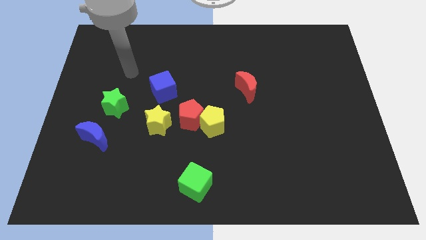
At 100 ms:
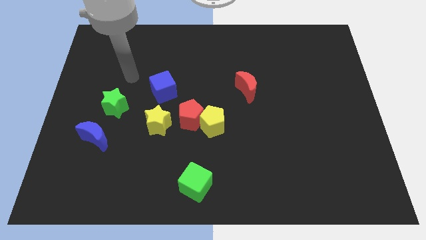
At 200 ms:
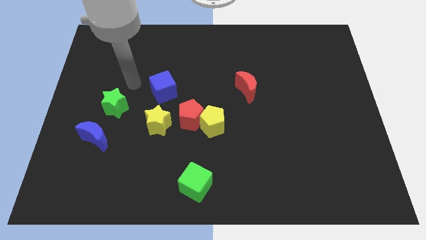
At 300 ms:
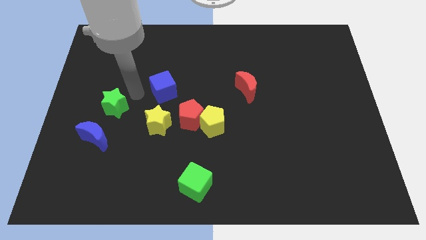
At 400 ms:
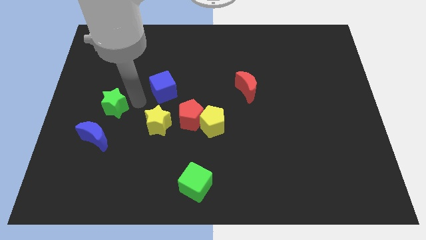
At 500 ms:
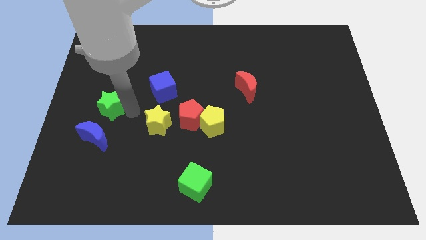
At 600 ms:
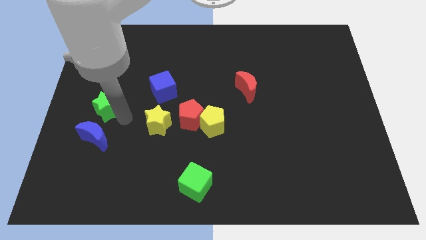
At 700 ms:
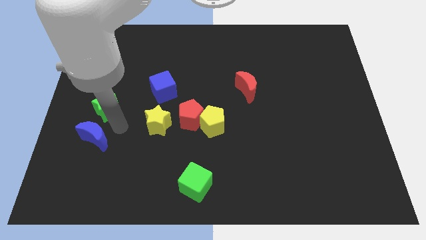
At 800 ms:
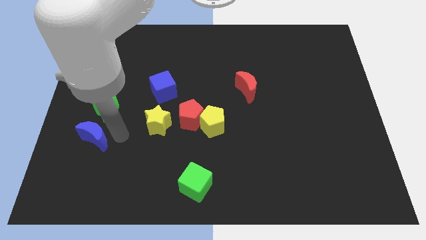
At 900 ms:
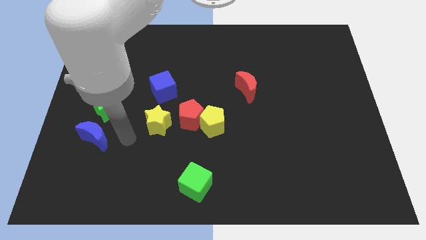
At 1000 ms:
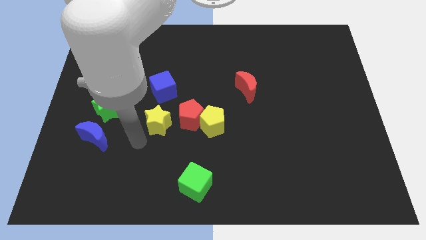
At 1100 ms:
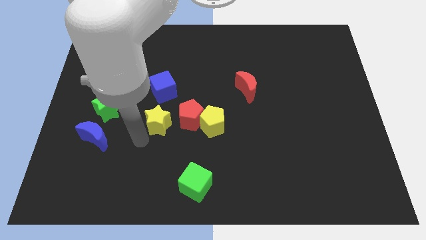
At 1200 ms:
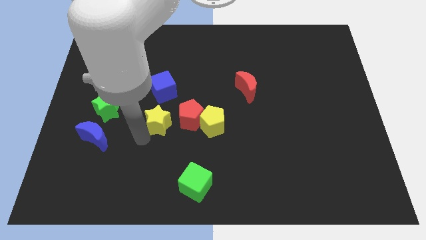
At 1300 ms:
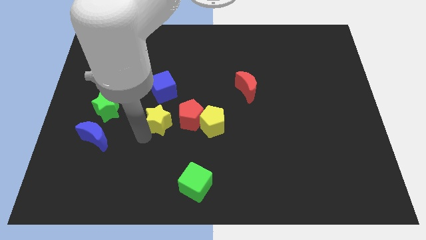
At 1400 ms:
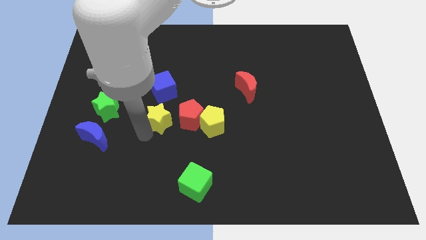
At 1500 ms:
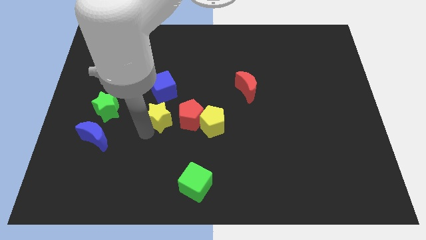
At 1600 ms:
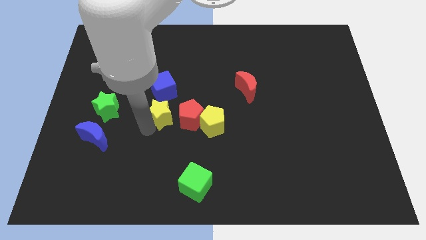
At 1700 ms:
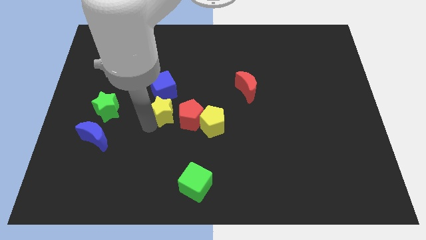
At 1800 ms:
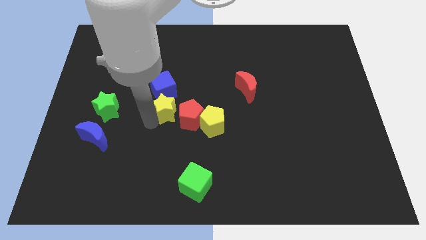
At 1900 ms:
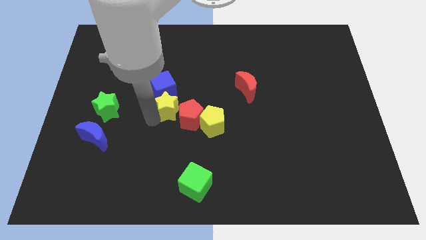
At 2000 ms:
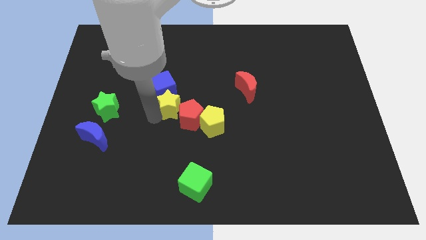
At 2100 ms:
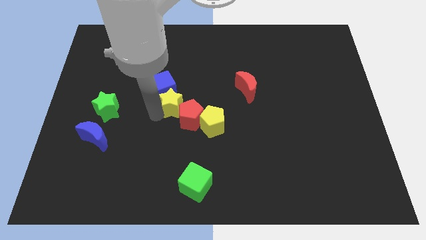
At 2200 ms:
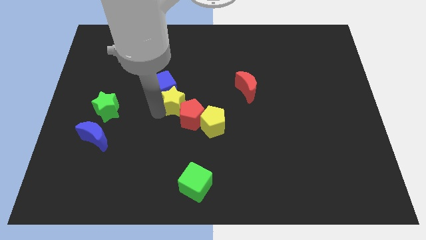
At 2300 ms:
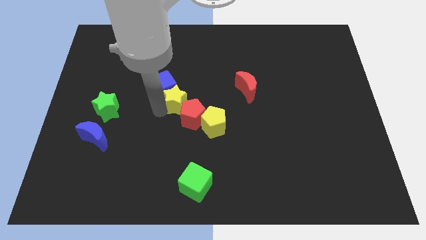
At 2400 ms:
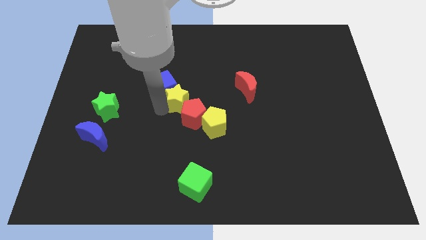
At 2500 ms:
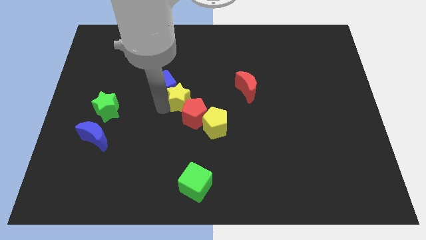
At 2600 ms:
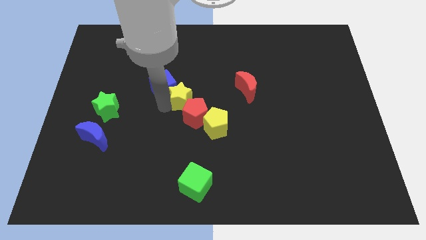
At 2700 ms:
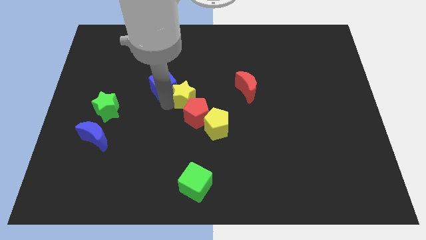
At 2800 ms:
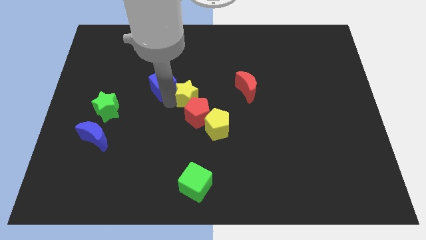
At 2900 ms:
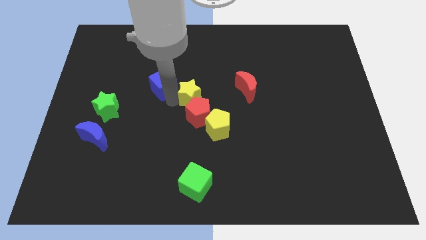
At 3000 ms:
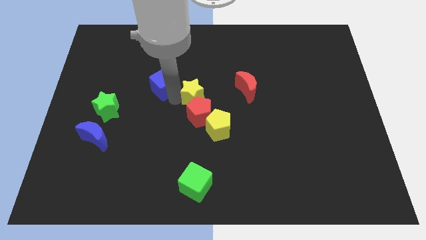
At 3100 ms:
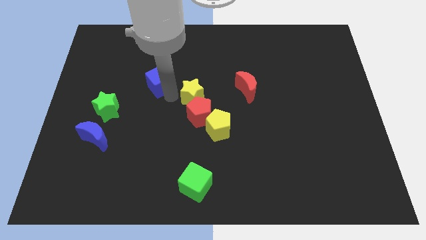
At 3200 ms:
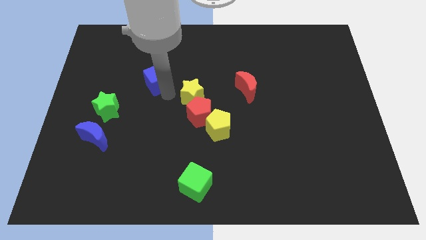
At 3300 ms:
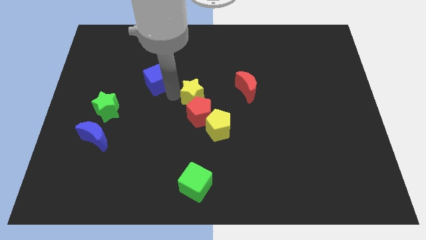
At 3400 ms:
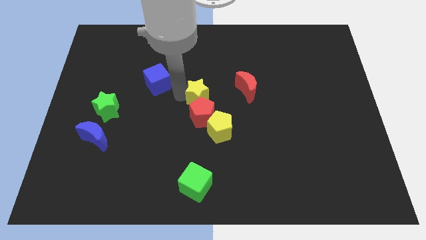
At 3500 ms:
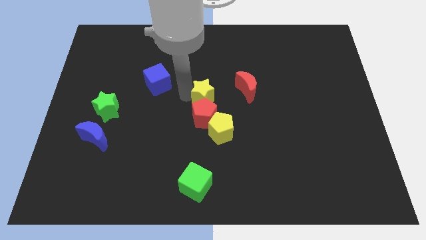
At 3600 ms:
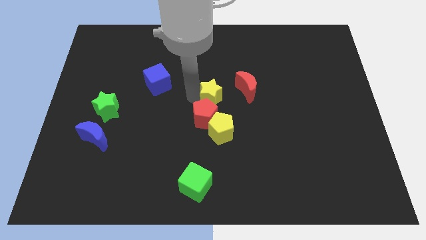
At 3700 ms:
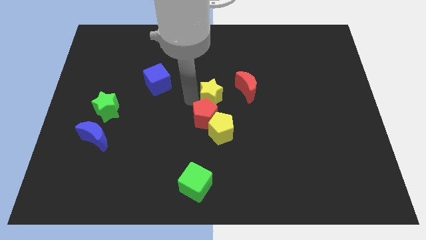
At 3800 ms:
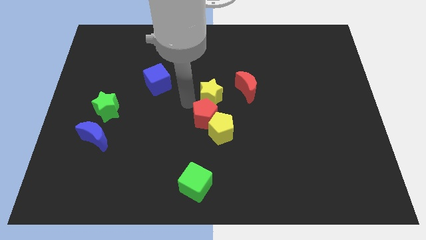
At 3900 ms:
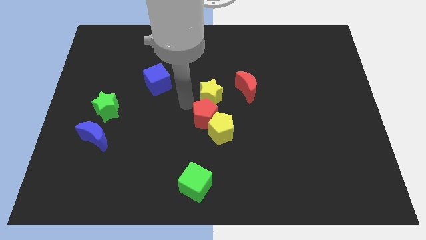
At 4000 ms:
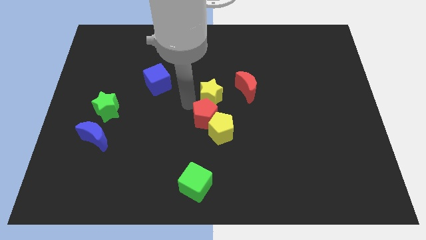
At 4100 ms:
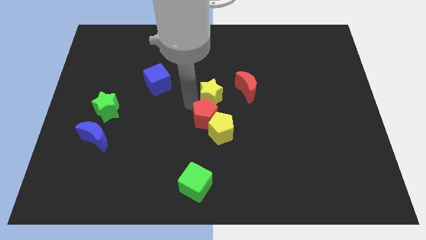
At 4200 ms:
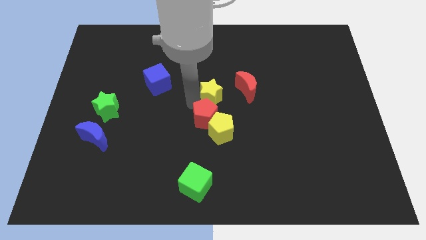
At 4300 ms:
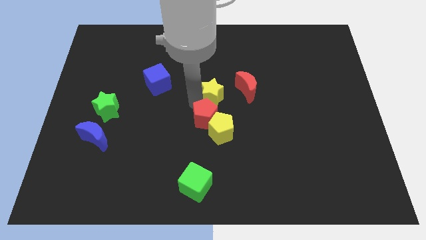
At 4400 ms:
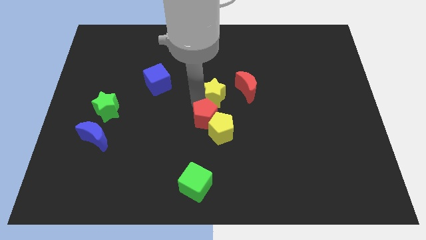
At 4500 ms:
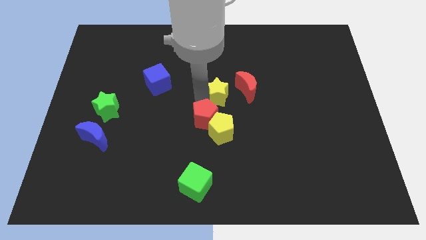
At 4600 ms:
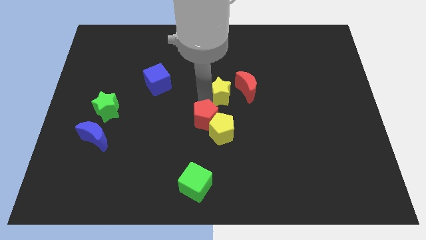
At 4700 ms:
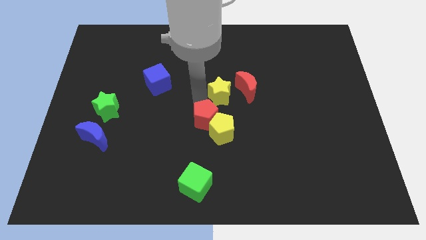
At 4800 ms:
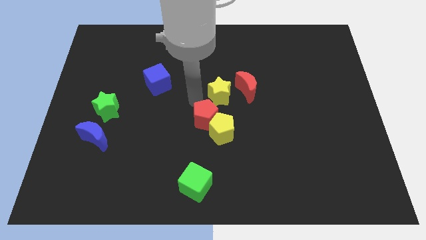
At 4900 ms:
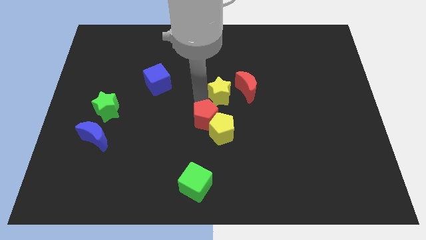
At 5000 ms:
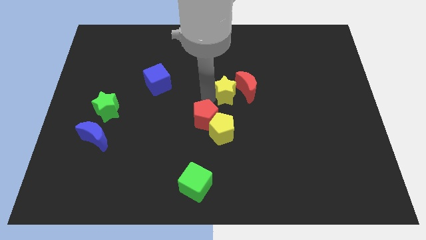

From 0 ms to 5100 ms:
slide the yellow star to the red moon

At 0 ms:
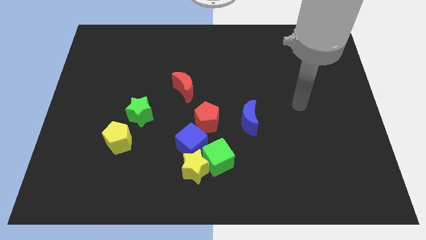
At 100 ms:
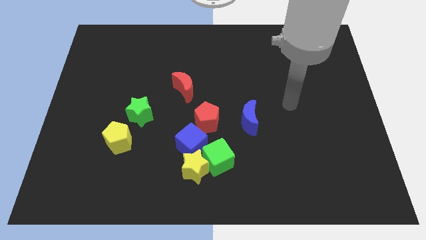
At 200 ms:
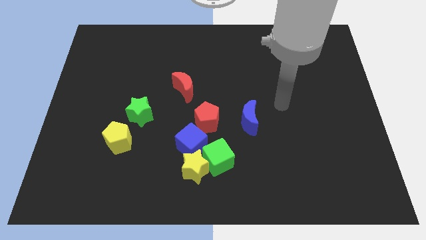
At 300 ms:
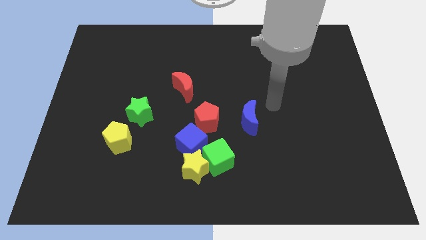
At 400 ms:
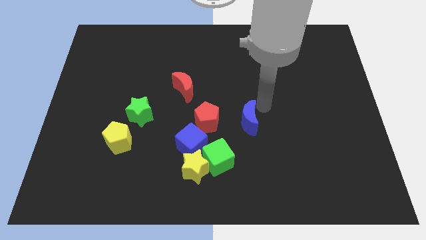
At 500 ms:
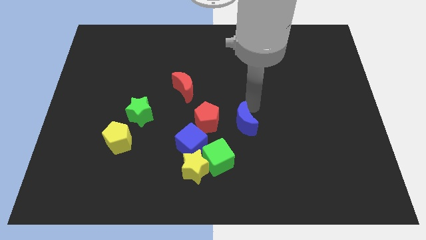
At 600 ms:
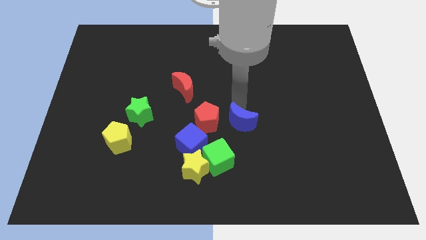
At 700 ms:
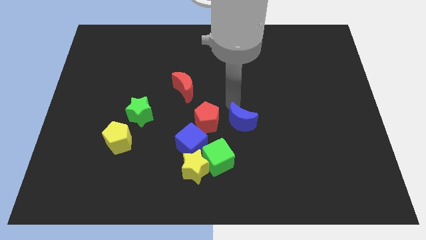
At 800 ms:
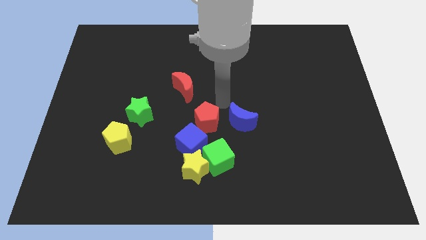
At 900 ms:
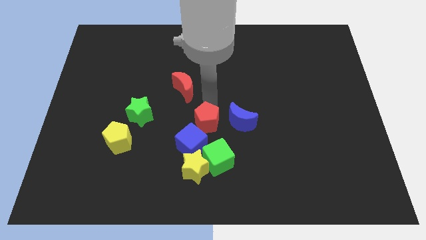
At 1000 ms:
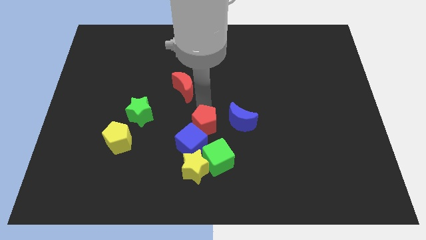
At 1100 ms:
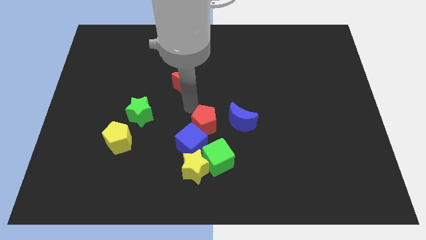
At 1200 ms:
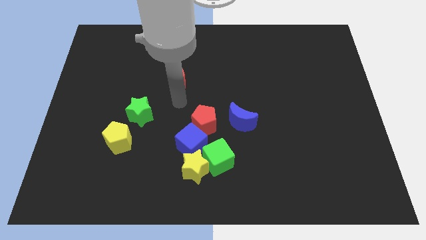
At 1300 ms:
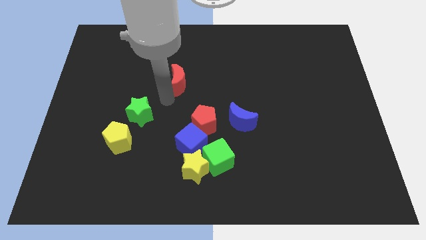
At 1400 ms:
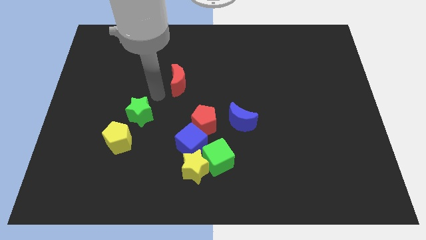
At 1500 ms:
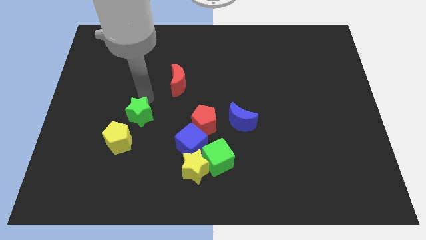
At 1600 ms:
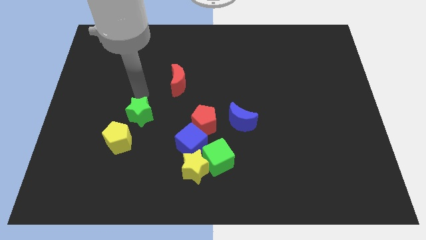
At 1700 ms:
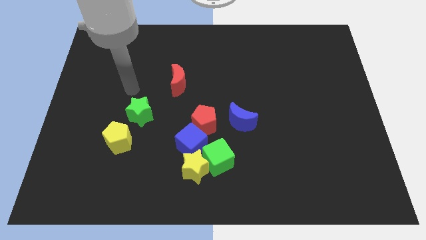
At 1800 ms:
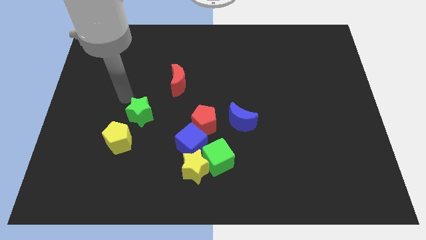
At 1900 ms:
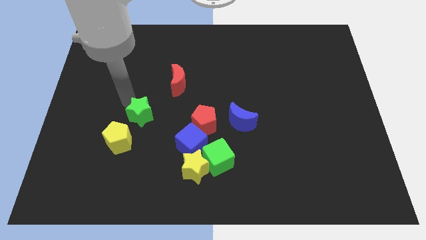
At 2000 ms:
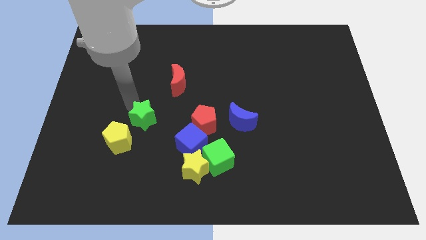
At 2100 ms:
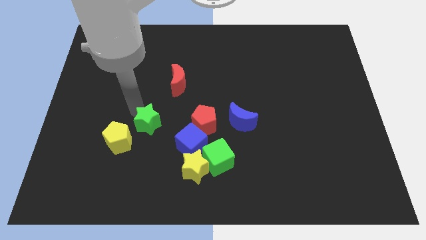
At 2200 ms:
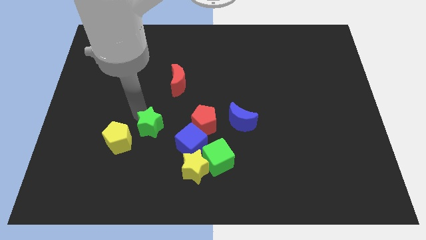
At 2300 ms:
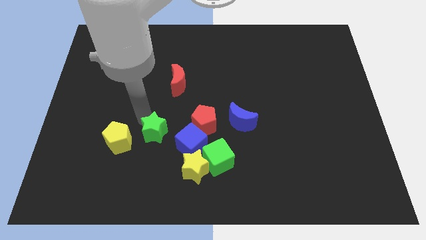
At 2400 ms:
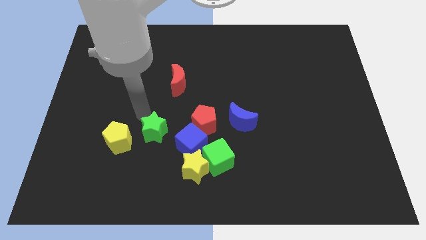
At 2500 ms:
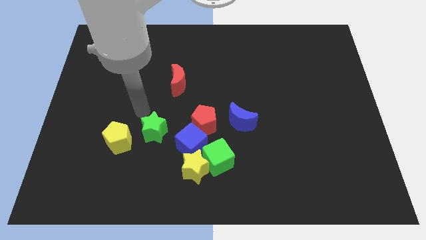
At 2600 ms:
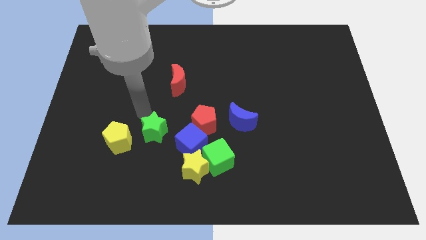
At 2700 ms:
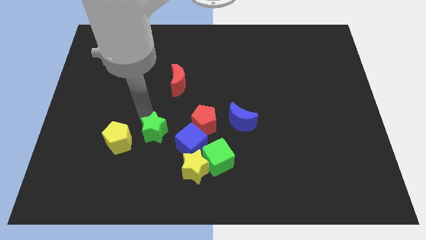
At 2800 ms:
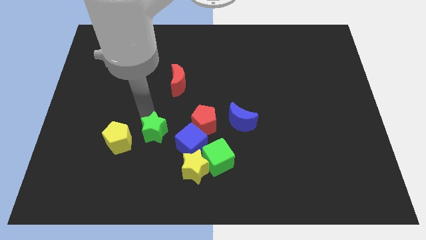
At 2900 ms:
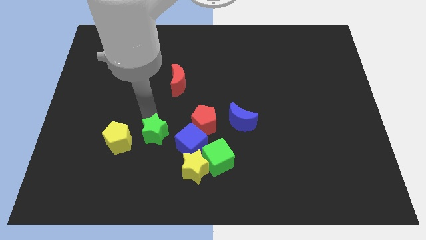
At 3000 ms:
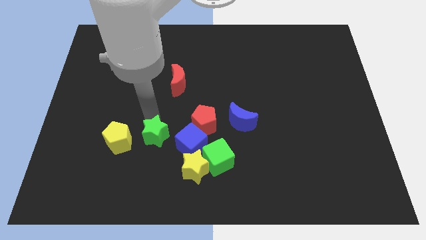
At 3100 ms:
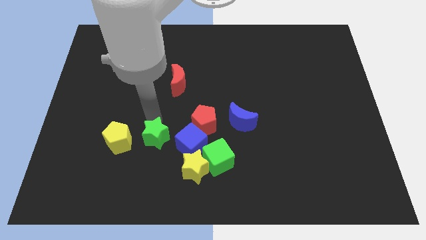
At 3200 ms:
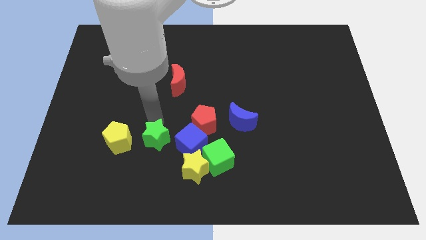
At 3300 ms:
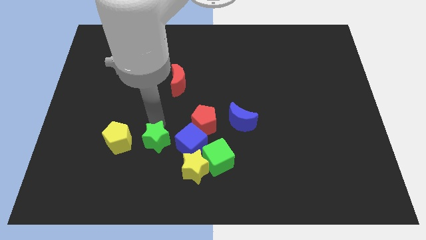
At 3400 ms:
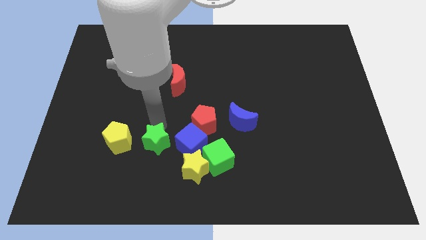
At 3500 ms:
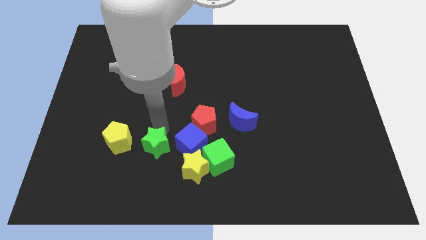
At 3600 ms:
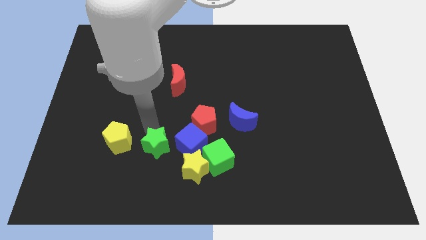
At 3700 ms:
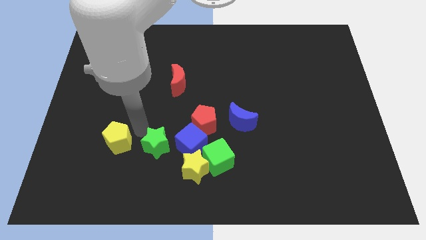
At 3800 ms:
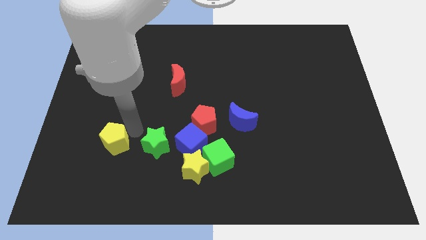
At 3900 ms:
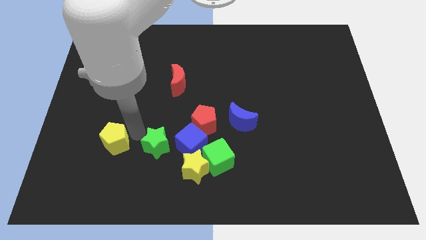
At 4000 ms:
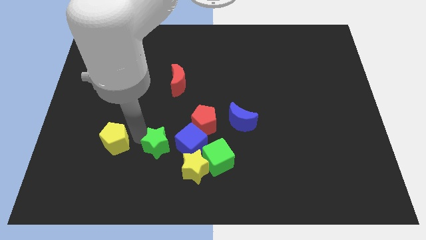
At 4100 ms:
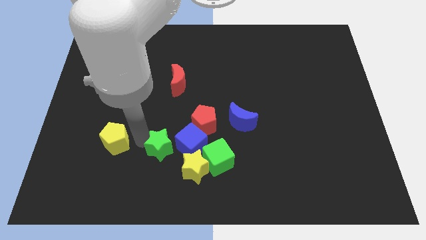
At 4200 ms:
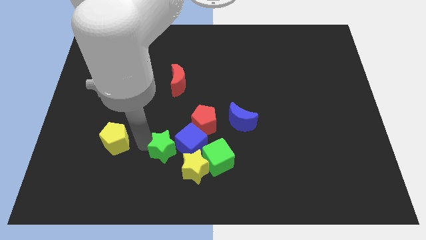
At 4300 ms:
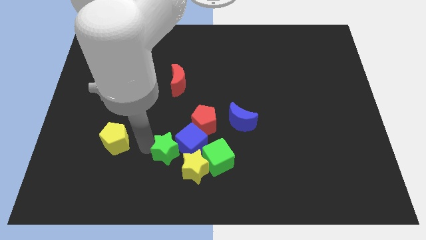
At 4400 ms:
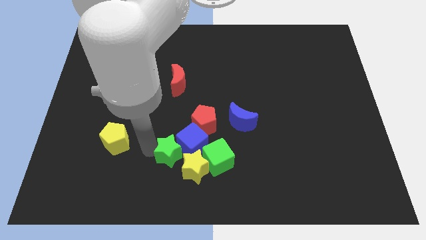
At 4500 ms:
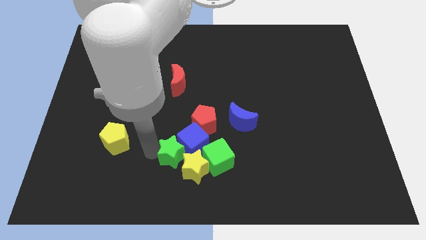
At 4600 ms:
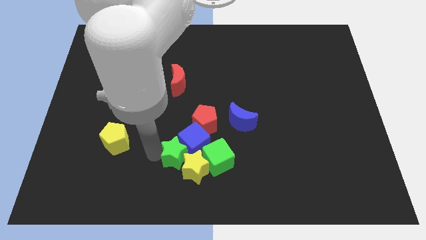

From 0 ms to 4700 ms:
push the green star towards the yellow star
